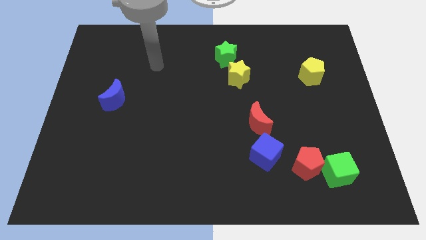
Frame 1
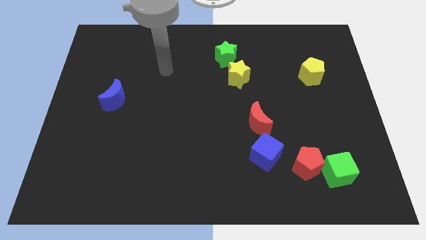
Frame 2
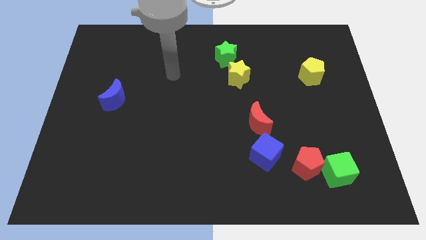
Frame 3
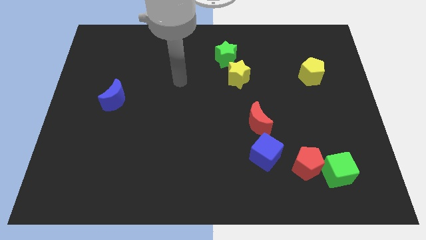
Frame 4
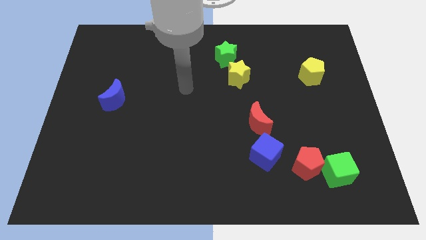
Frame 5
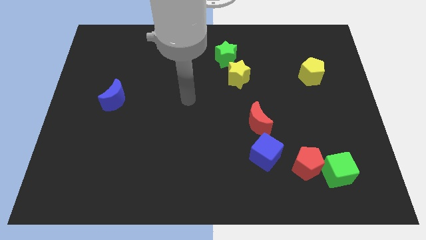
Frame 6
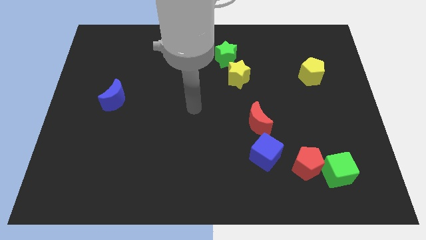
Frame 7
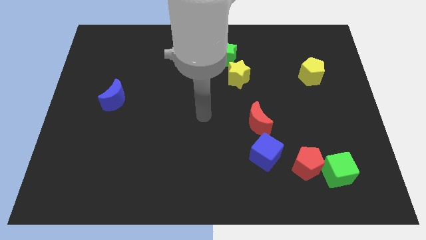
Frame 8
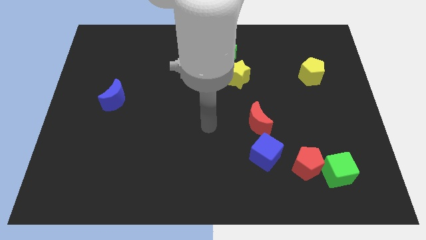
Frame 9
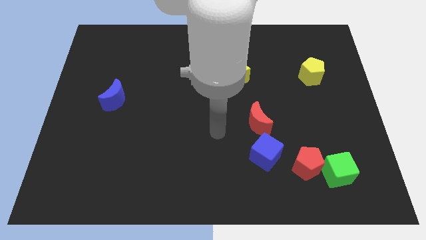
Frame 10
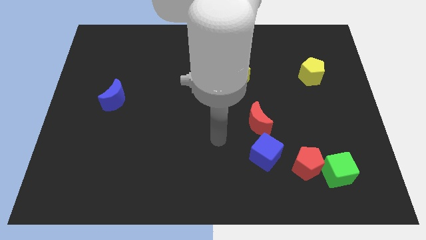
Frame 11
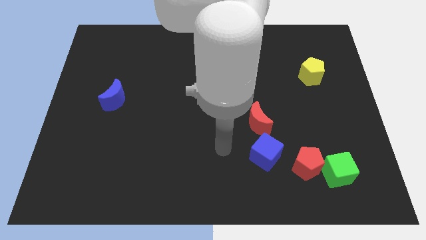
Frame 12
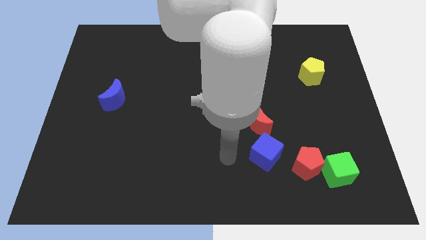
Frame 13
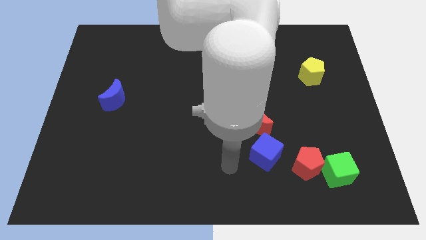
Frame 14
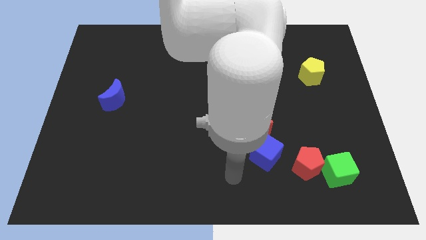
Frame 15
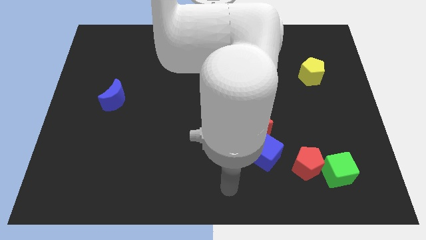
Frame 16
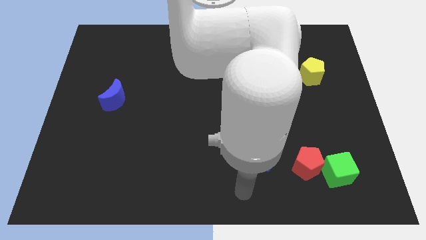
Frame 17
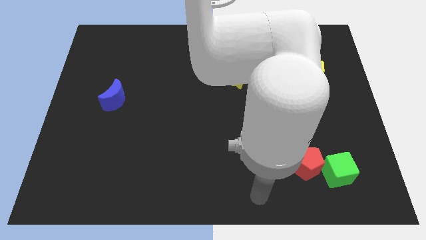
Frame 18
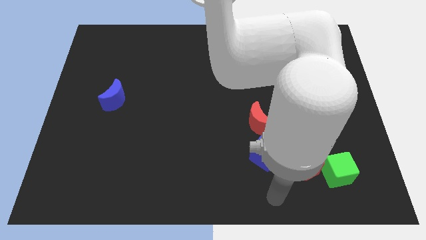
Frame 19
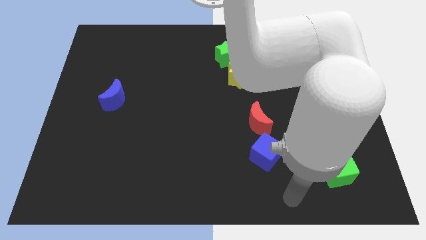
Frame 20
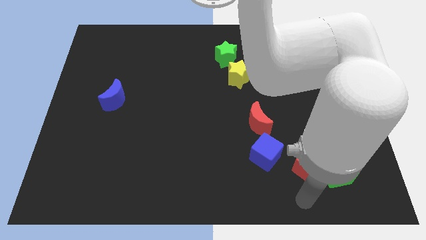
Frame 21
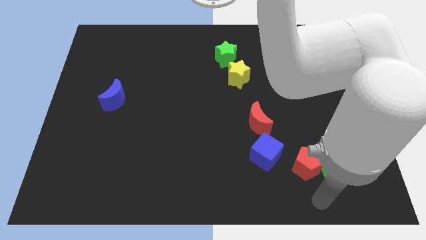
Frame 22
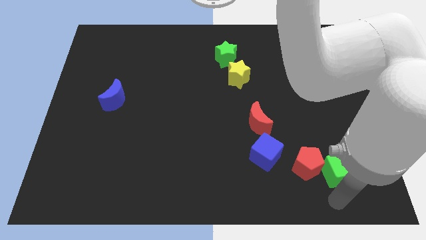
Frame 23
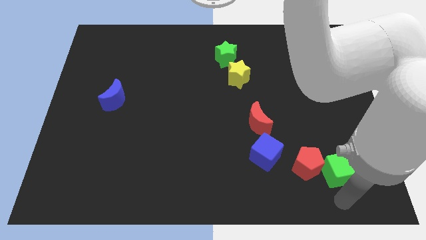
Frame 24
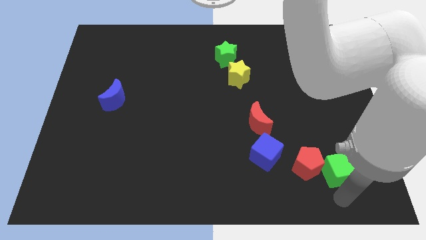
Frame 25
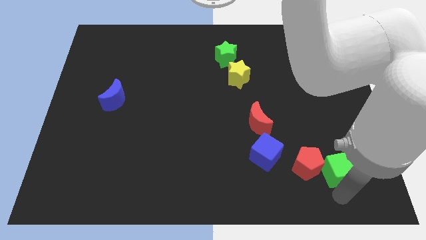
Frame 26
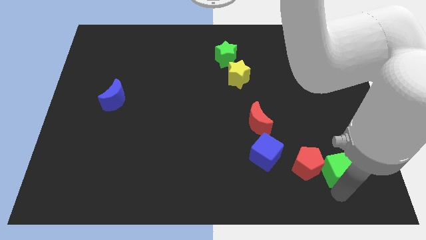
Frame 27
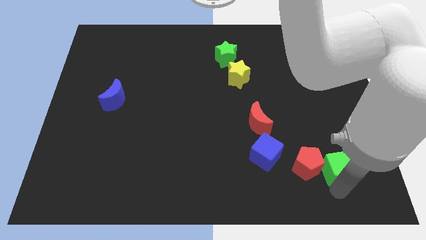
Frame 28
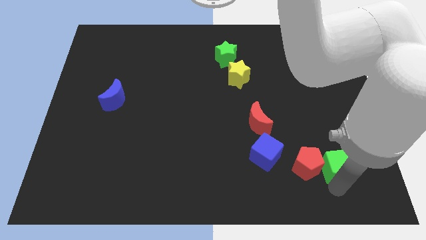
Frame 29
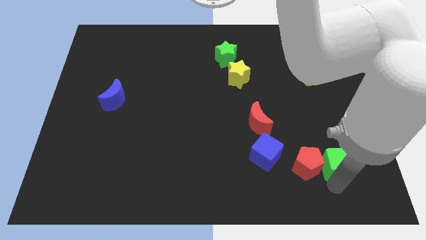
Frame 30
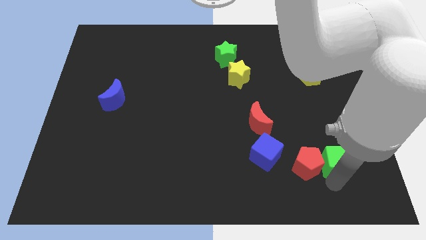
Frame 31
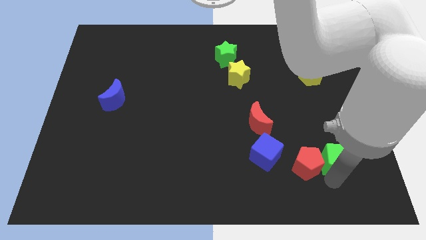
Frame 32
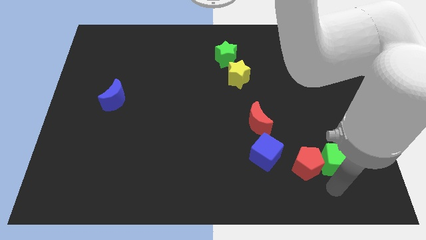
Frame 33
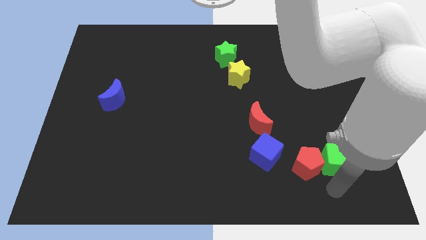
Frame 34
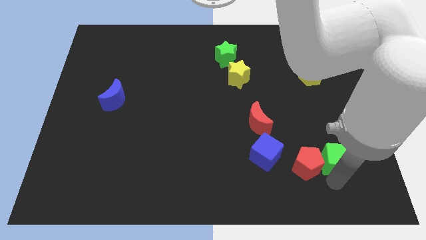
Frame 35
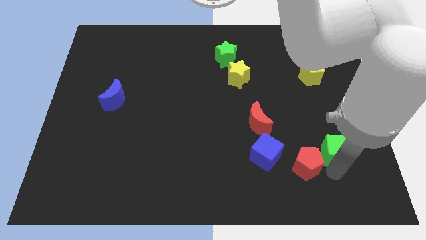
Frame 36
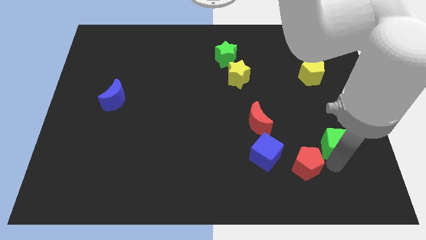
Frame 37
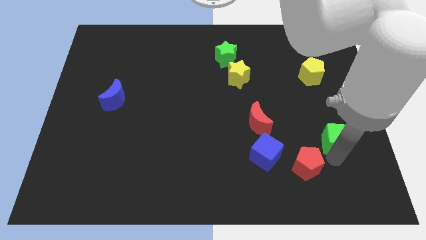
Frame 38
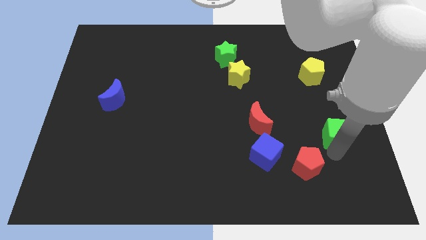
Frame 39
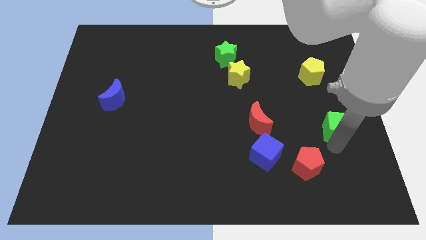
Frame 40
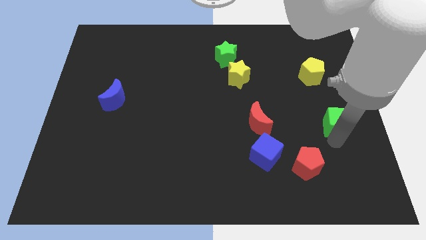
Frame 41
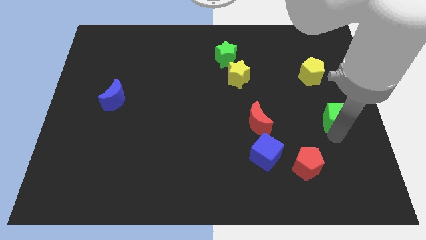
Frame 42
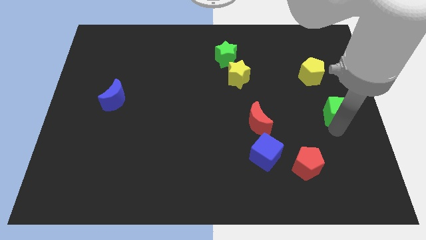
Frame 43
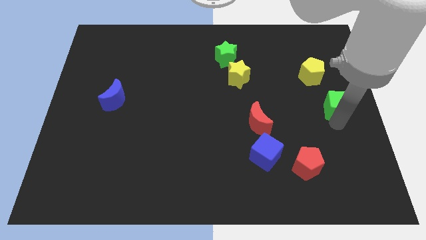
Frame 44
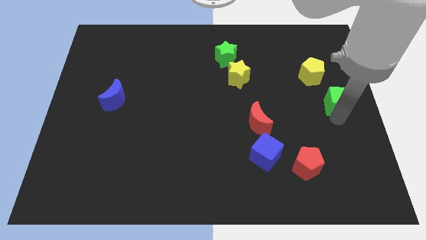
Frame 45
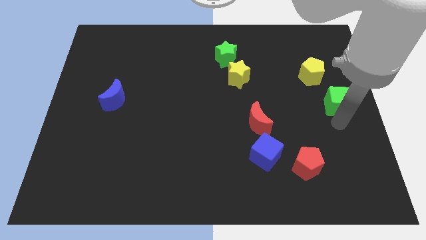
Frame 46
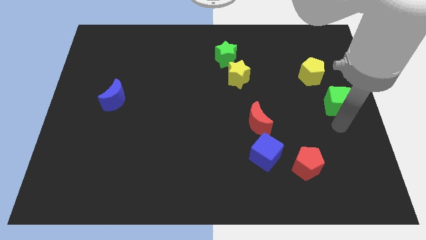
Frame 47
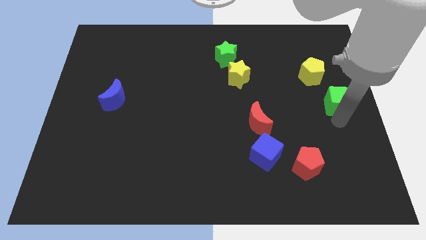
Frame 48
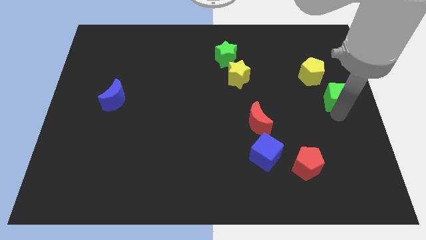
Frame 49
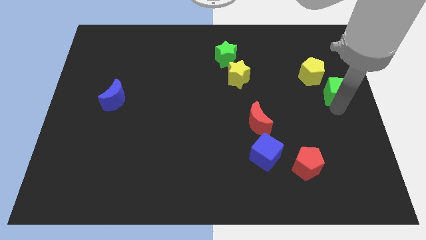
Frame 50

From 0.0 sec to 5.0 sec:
push the green cube upwards

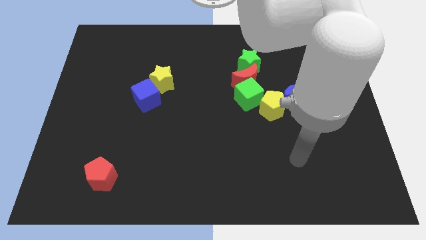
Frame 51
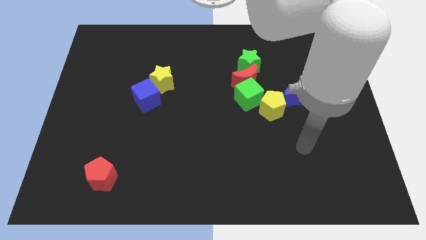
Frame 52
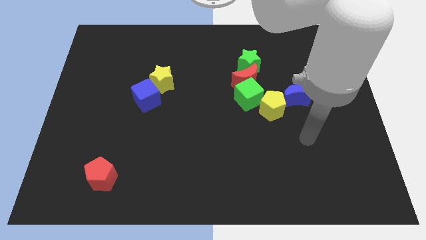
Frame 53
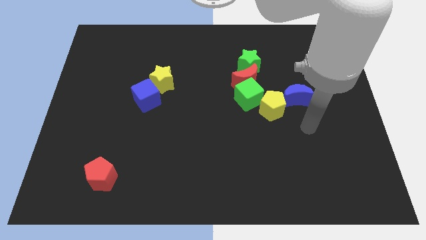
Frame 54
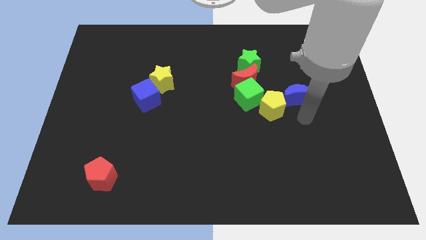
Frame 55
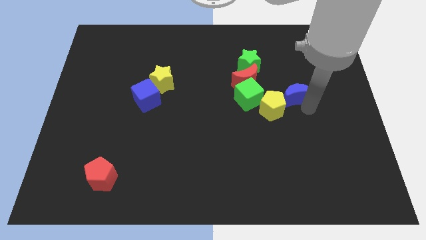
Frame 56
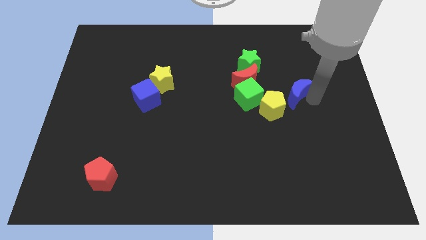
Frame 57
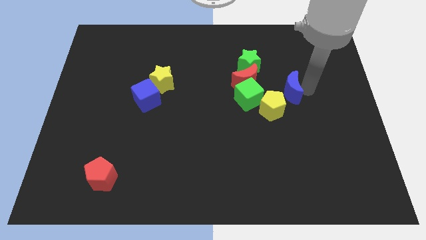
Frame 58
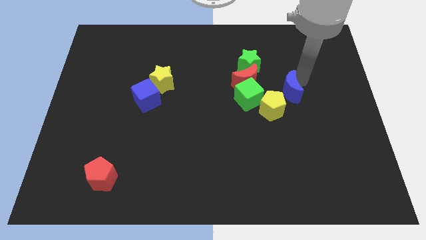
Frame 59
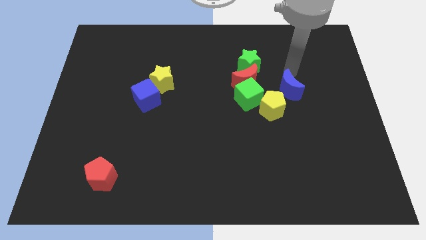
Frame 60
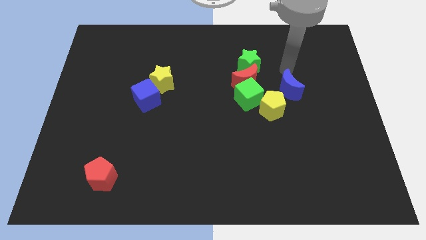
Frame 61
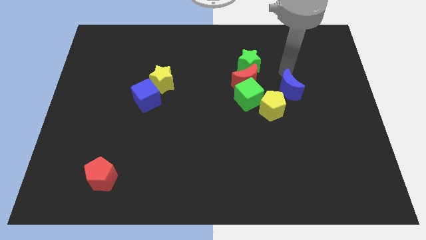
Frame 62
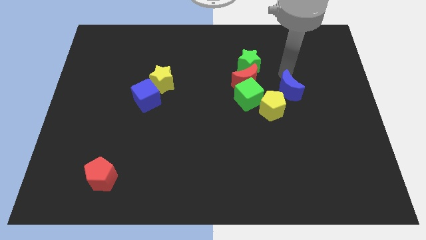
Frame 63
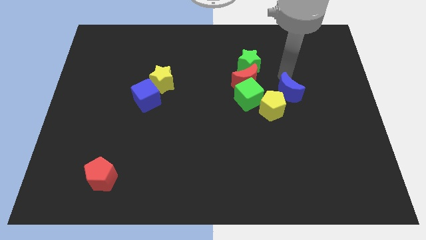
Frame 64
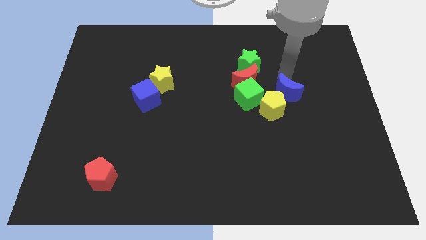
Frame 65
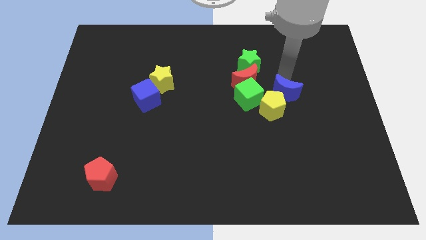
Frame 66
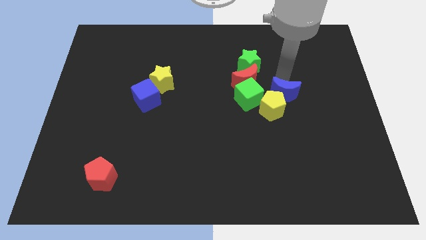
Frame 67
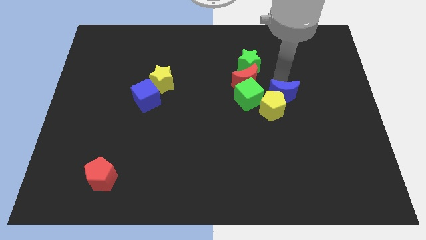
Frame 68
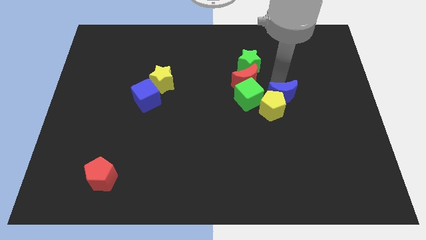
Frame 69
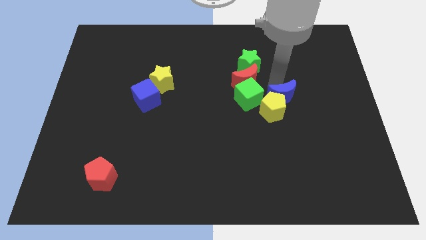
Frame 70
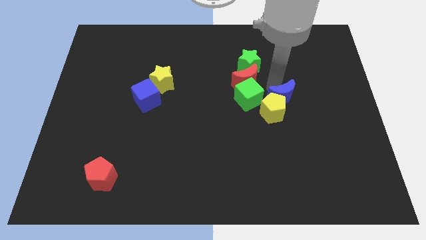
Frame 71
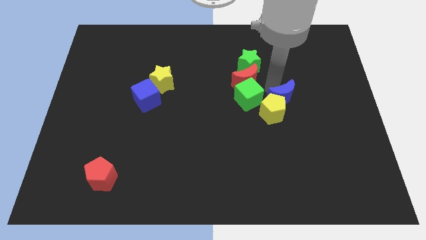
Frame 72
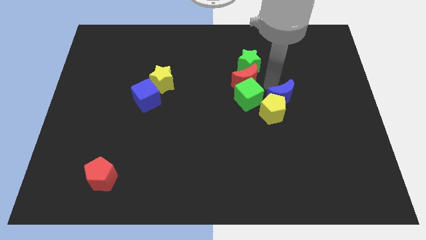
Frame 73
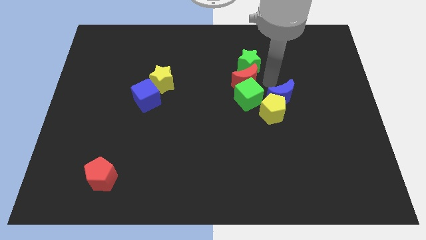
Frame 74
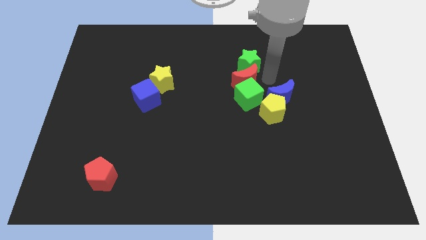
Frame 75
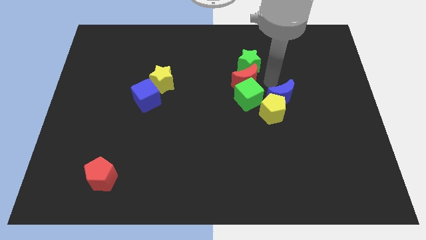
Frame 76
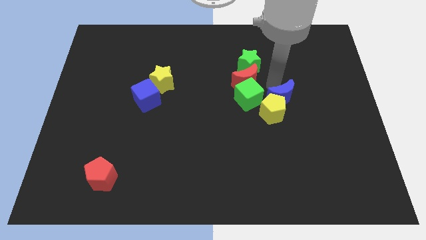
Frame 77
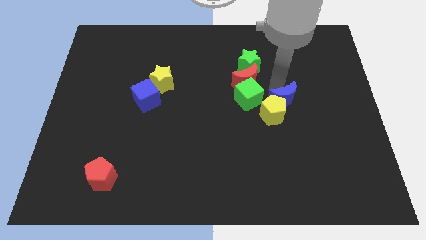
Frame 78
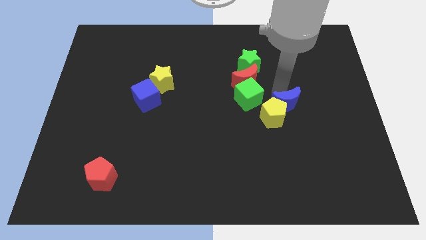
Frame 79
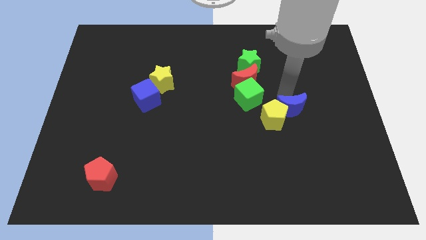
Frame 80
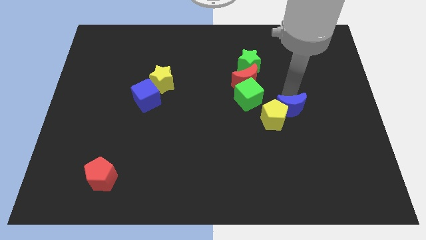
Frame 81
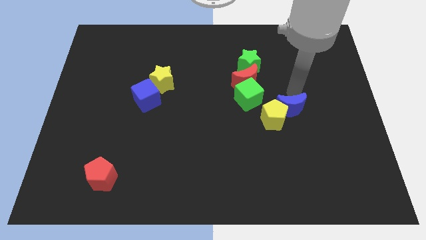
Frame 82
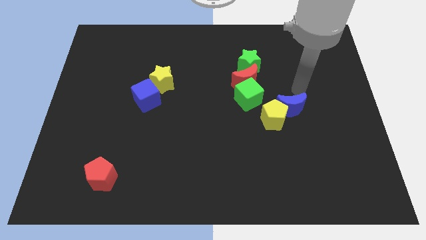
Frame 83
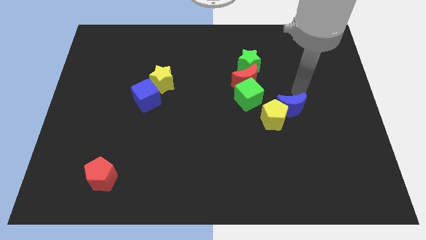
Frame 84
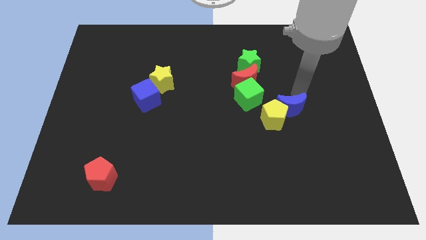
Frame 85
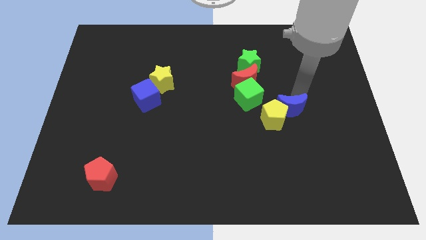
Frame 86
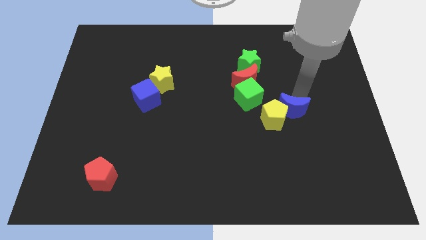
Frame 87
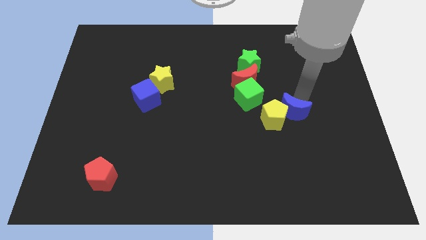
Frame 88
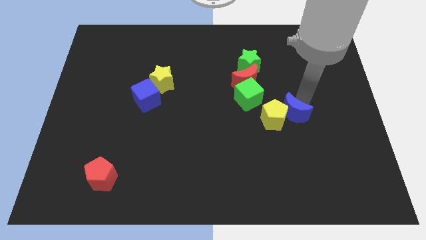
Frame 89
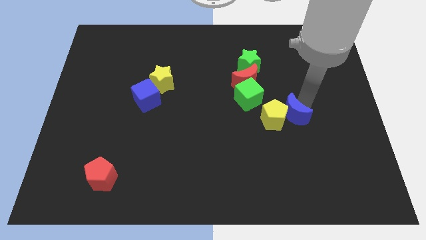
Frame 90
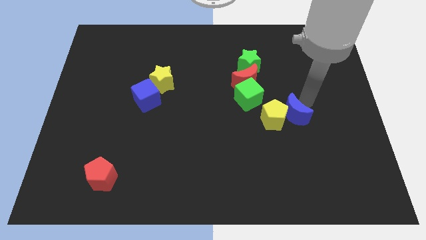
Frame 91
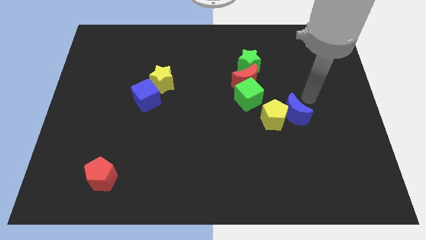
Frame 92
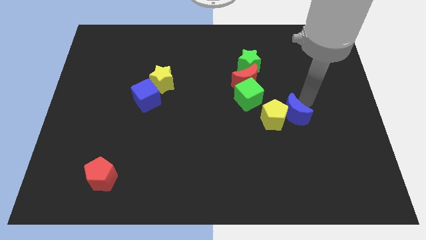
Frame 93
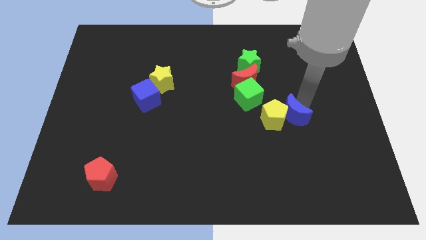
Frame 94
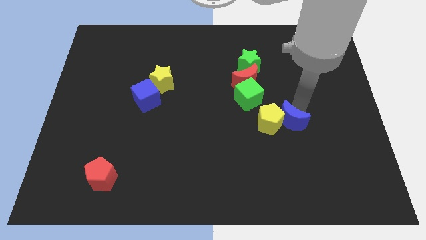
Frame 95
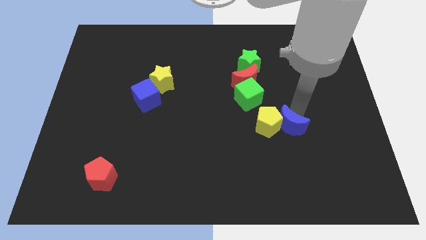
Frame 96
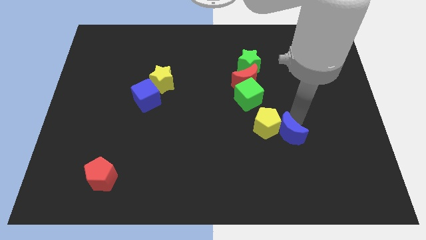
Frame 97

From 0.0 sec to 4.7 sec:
slightly slide the blue moon down and left diagonally
